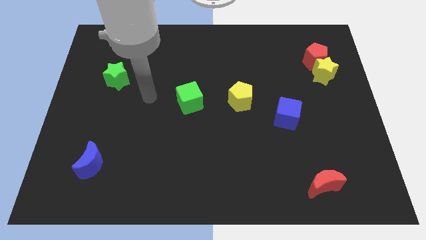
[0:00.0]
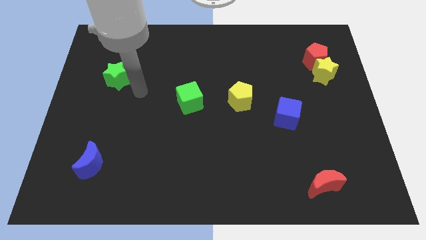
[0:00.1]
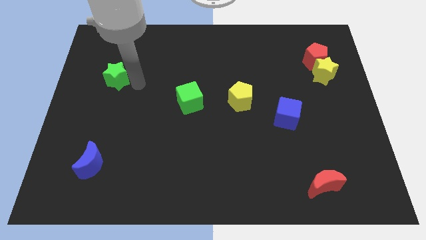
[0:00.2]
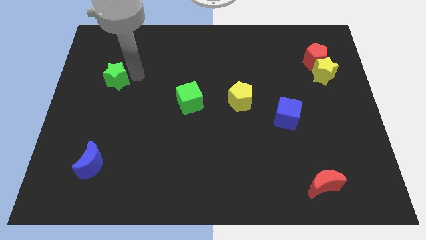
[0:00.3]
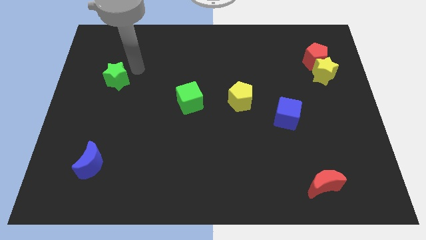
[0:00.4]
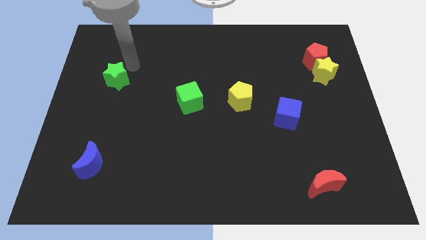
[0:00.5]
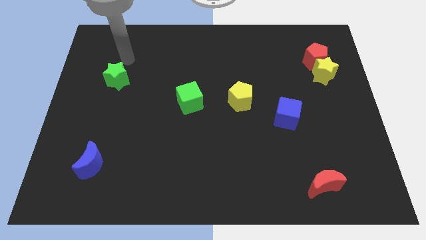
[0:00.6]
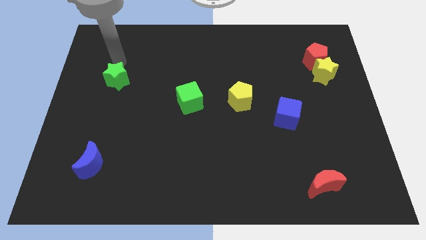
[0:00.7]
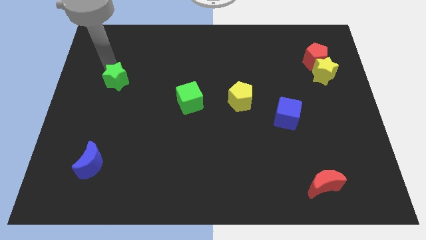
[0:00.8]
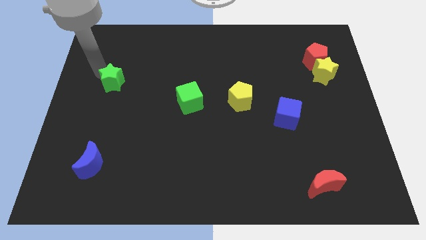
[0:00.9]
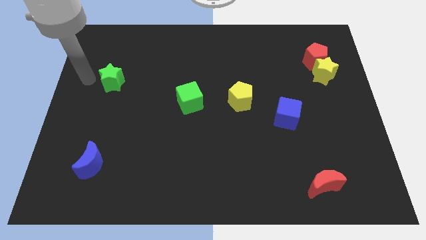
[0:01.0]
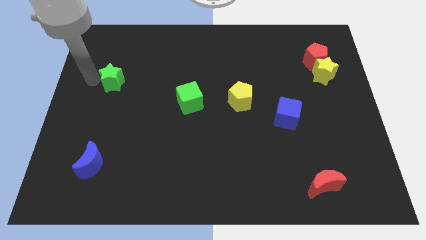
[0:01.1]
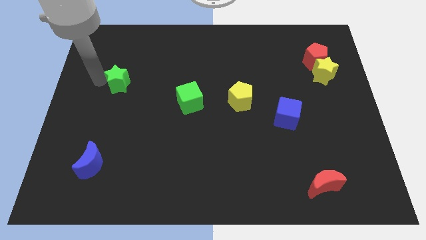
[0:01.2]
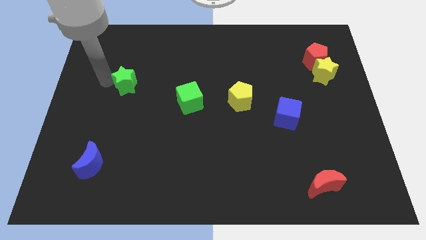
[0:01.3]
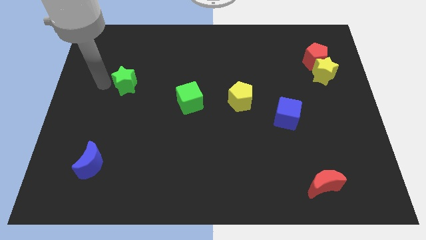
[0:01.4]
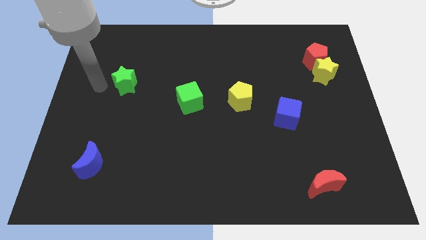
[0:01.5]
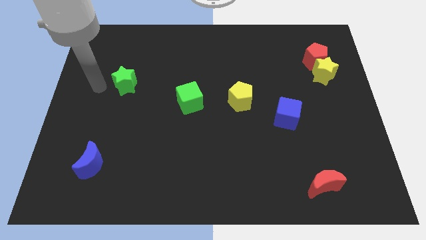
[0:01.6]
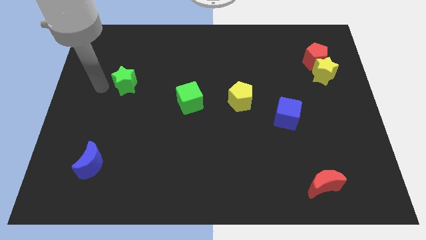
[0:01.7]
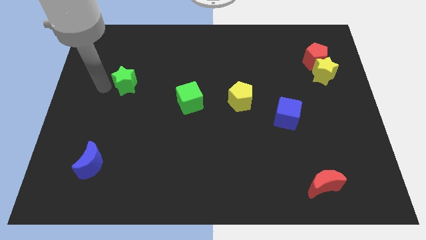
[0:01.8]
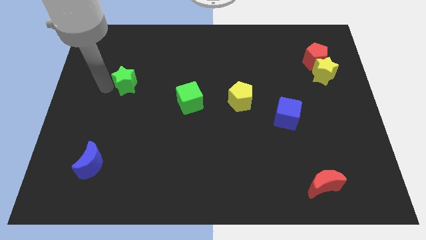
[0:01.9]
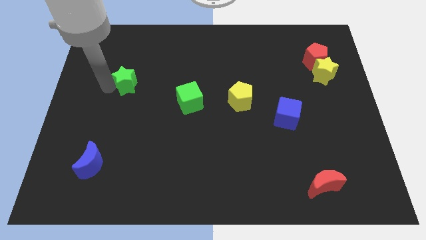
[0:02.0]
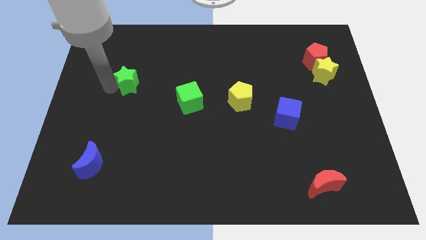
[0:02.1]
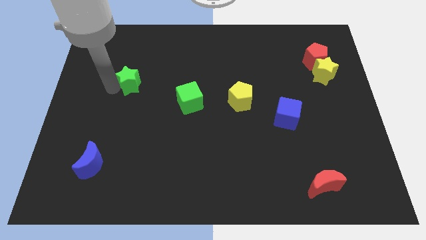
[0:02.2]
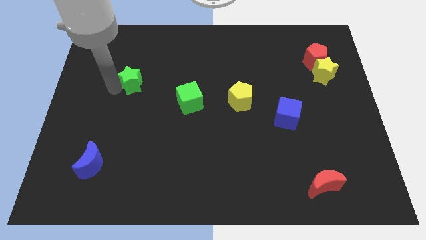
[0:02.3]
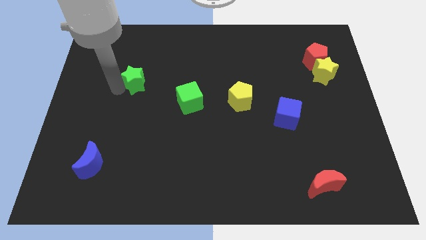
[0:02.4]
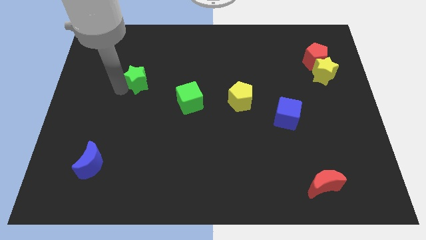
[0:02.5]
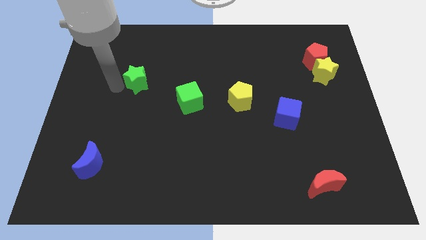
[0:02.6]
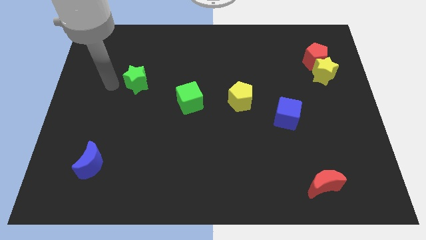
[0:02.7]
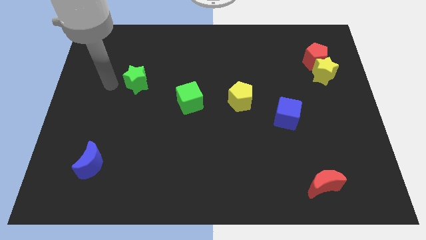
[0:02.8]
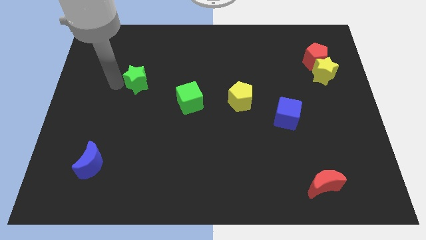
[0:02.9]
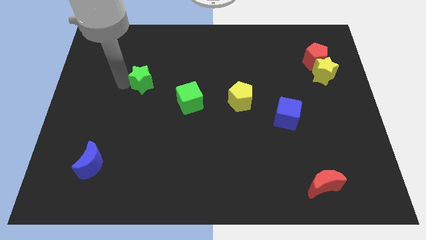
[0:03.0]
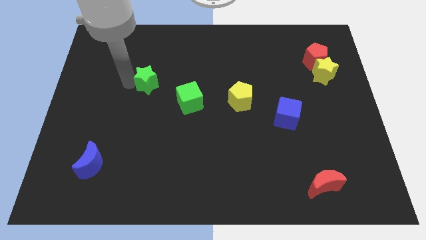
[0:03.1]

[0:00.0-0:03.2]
slide the green star to the right slightly

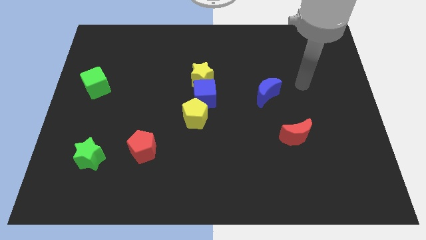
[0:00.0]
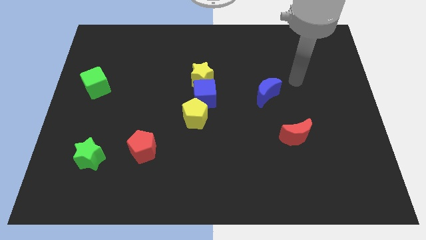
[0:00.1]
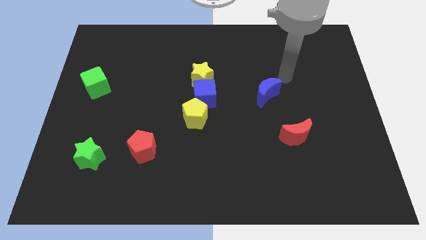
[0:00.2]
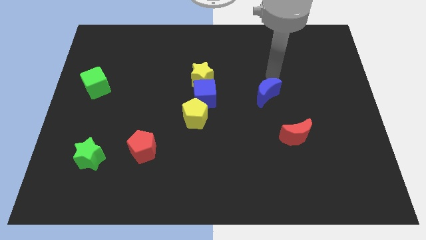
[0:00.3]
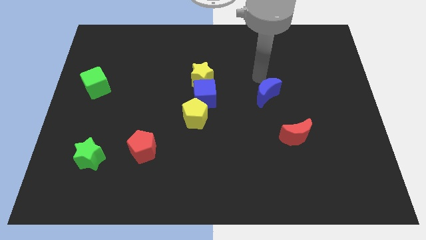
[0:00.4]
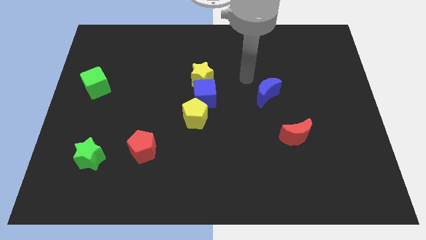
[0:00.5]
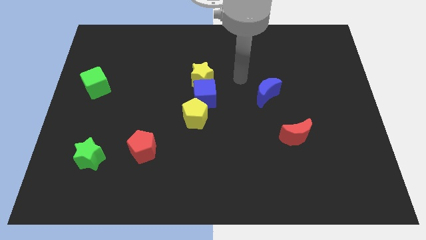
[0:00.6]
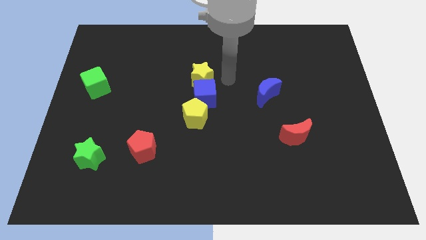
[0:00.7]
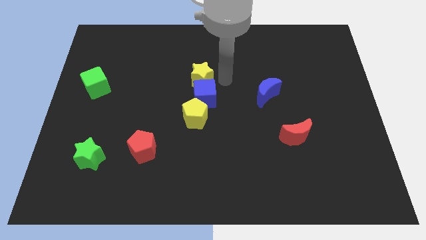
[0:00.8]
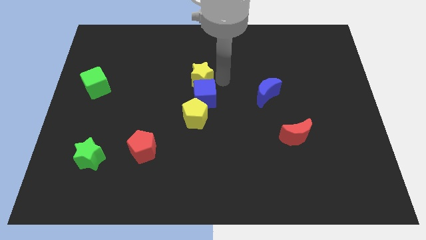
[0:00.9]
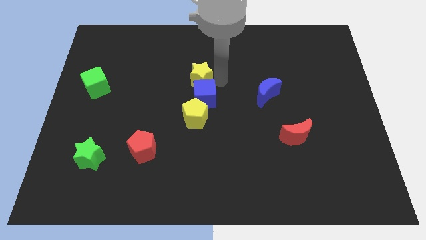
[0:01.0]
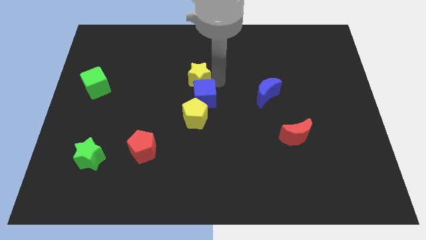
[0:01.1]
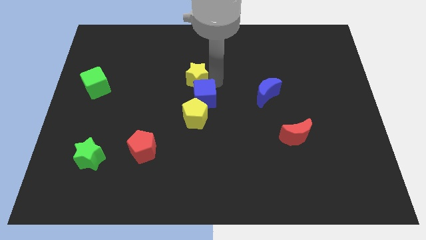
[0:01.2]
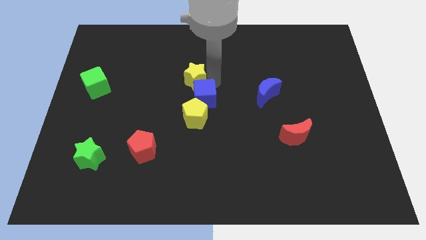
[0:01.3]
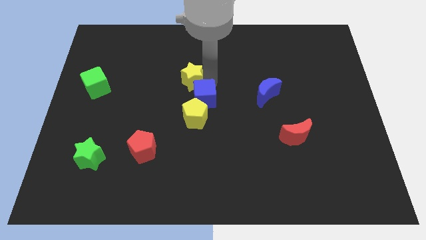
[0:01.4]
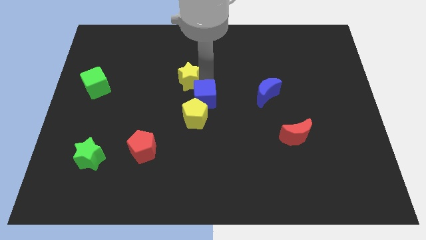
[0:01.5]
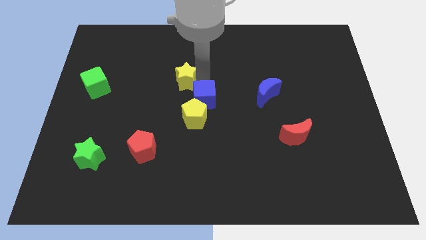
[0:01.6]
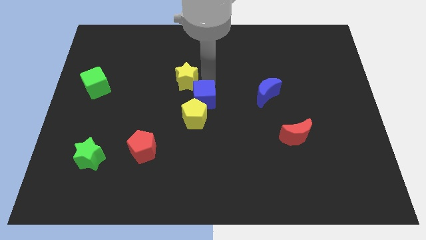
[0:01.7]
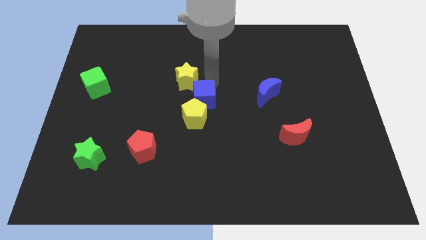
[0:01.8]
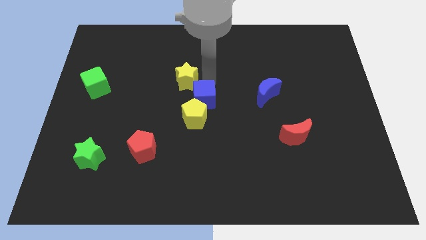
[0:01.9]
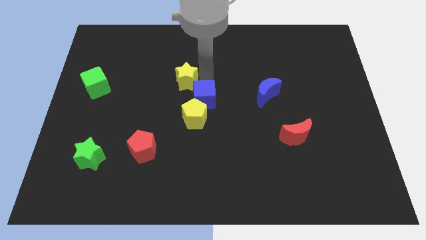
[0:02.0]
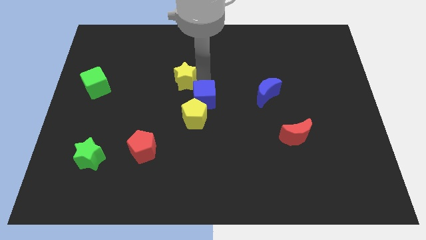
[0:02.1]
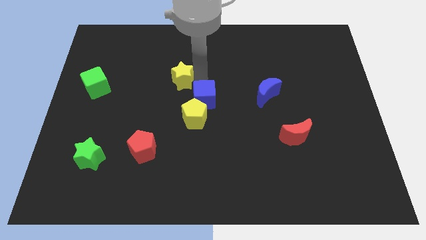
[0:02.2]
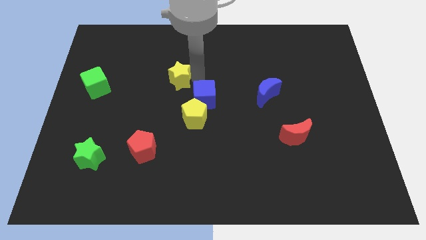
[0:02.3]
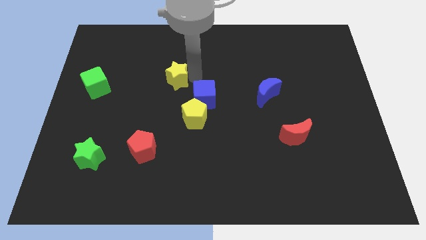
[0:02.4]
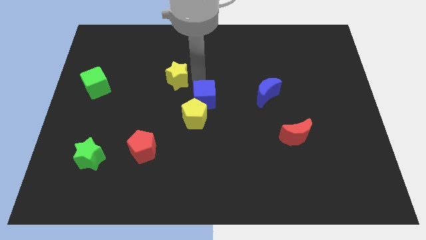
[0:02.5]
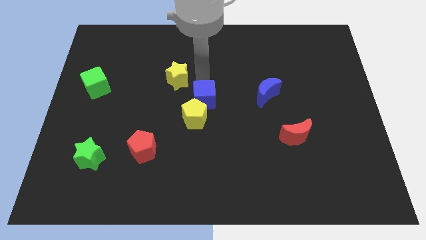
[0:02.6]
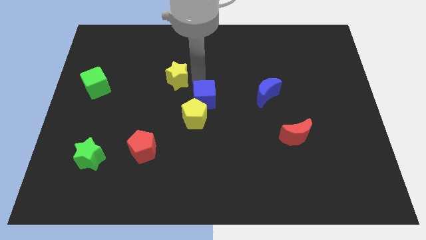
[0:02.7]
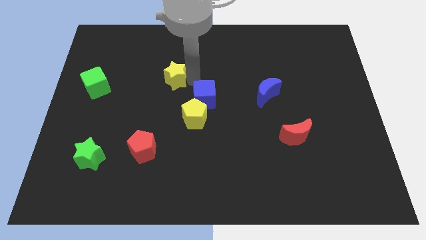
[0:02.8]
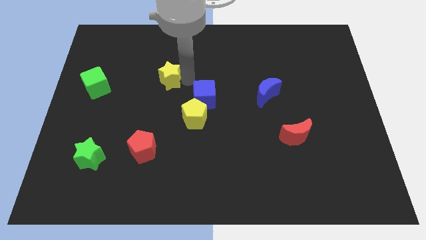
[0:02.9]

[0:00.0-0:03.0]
slide the yellow star a little bit to the left

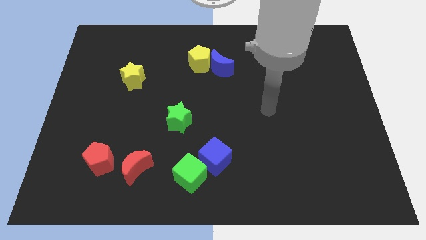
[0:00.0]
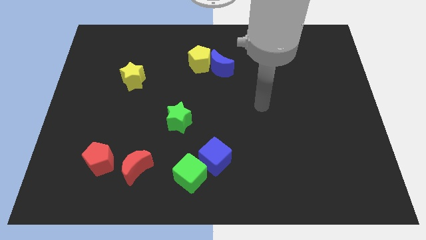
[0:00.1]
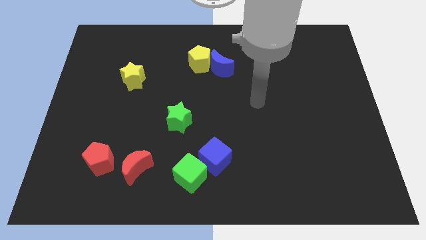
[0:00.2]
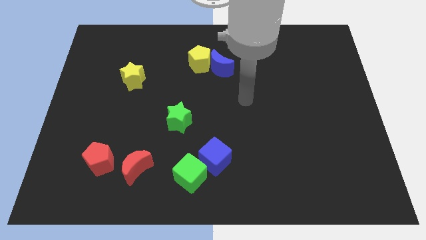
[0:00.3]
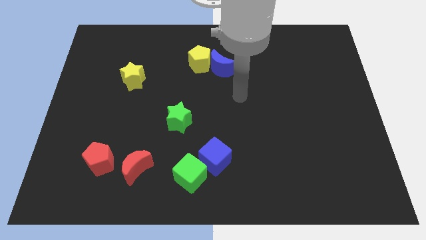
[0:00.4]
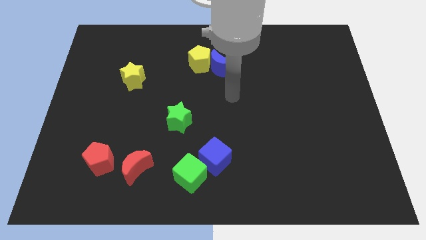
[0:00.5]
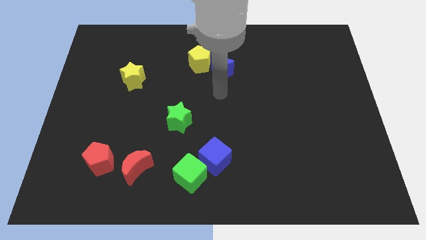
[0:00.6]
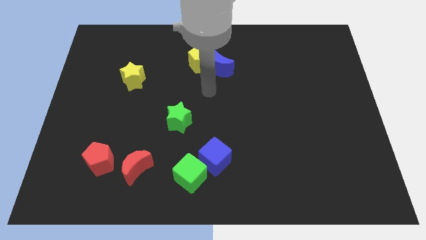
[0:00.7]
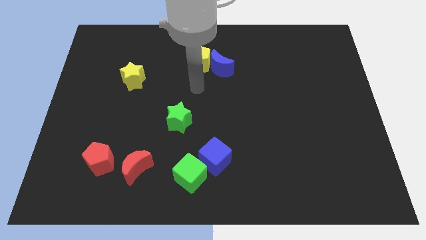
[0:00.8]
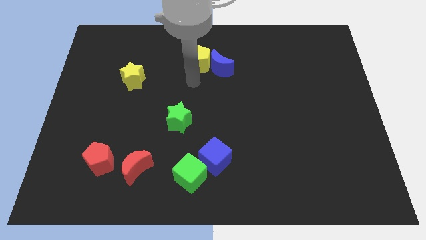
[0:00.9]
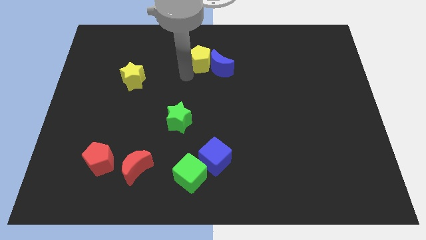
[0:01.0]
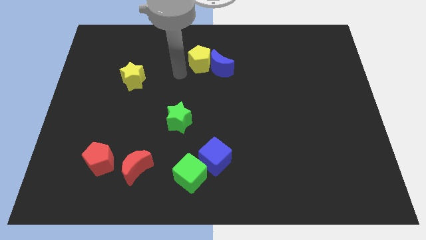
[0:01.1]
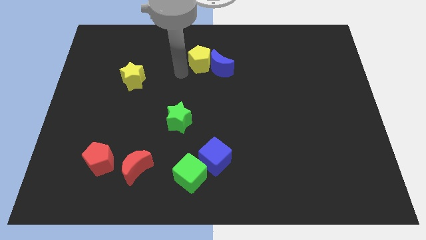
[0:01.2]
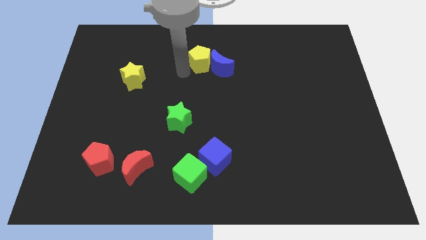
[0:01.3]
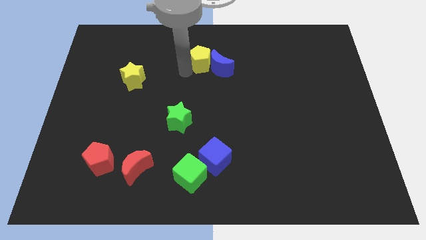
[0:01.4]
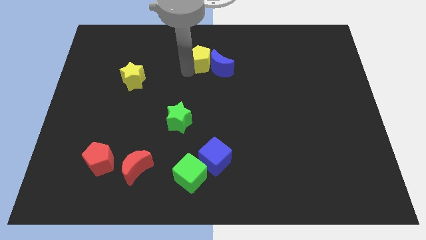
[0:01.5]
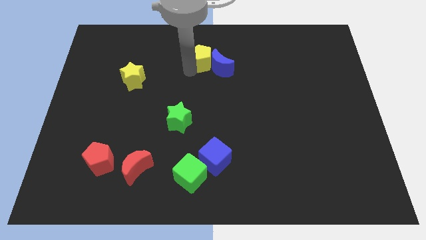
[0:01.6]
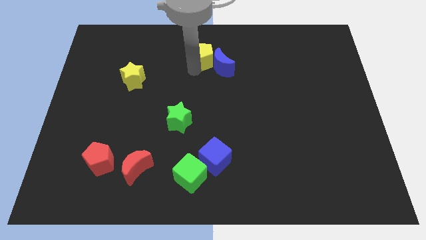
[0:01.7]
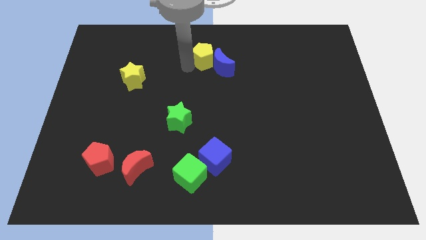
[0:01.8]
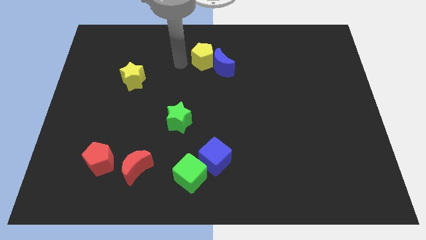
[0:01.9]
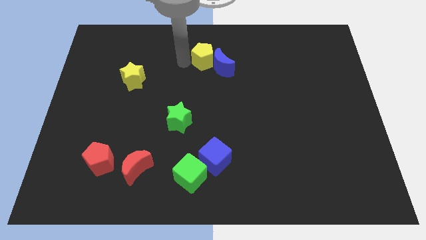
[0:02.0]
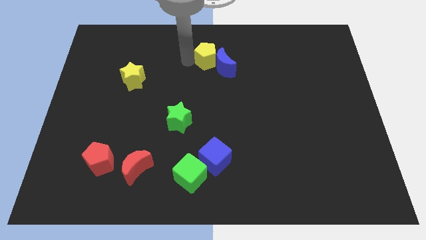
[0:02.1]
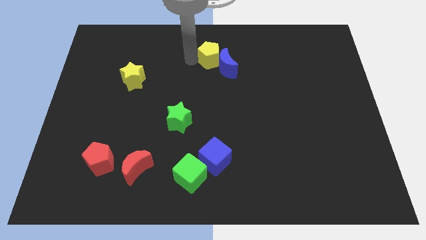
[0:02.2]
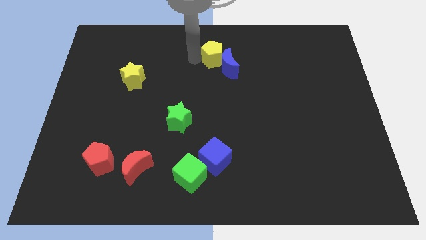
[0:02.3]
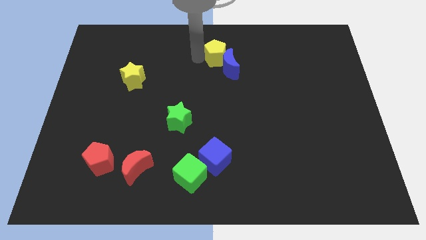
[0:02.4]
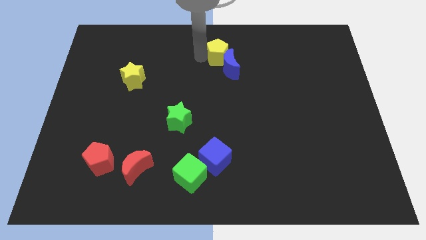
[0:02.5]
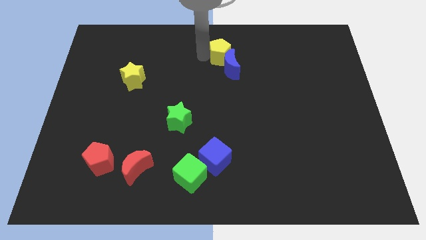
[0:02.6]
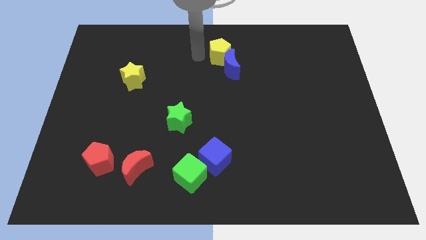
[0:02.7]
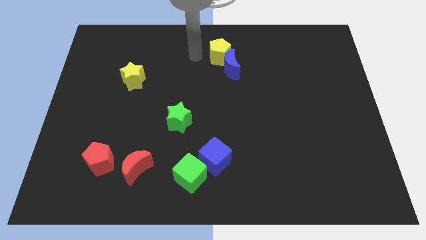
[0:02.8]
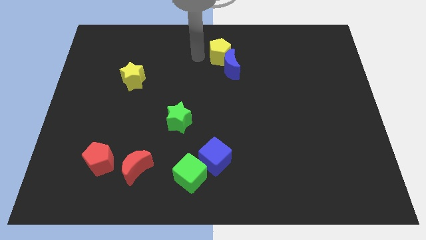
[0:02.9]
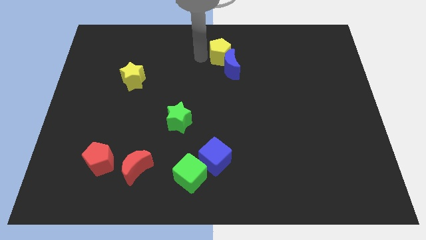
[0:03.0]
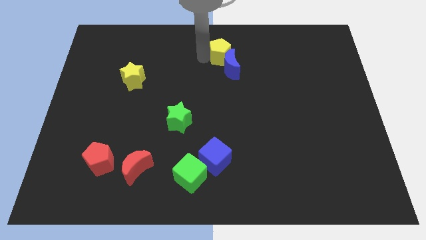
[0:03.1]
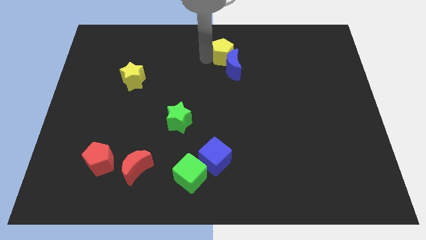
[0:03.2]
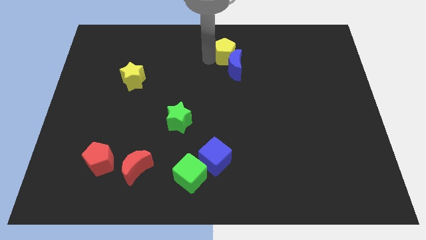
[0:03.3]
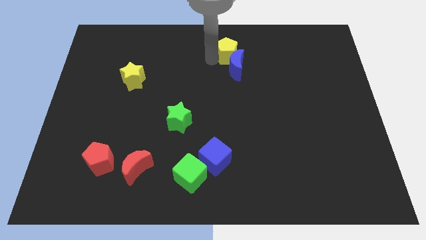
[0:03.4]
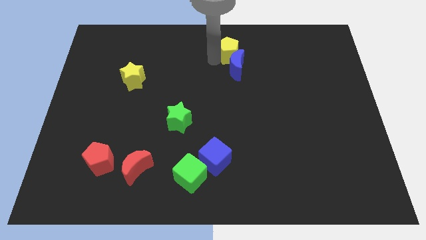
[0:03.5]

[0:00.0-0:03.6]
slightly move the yellow pentagon to the right
